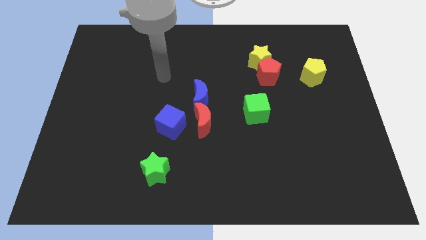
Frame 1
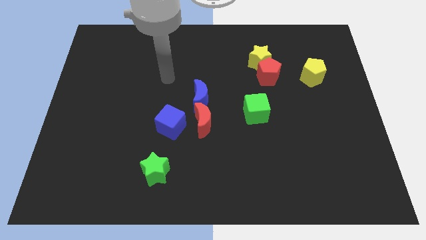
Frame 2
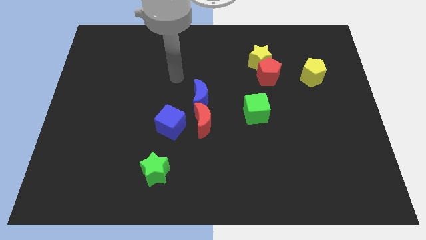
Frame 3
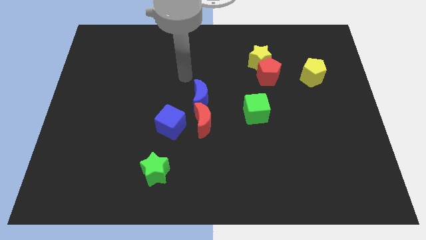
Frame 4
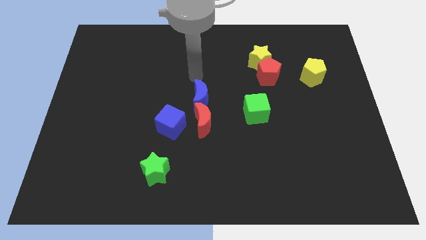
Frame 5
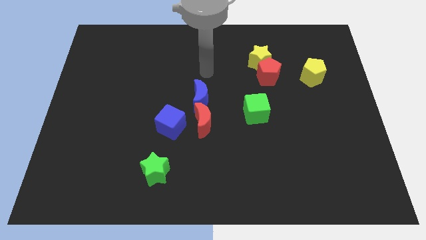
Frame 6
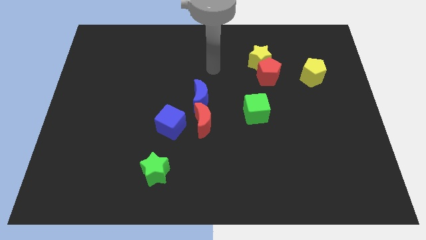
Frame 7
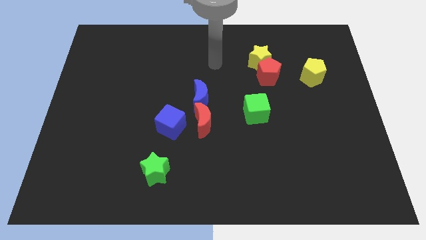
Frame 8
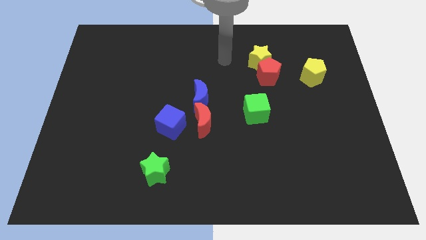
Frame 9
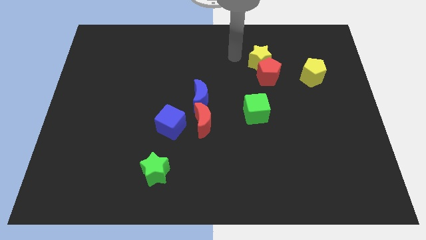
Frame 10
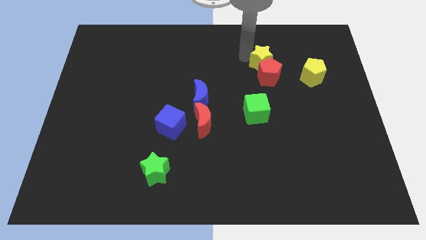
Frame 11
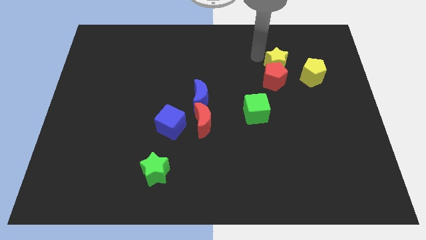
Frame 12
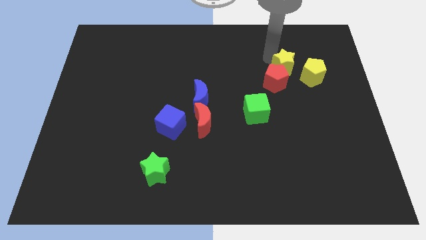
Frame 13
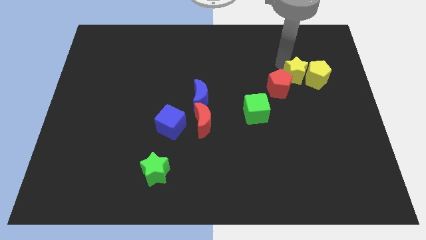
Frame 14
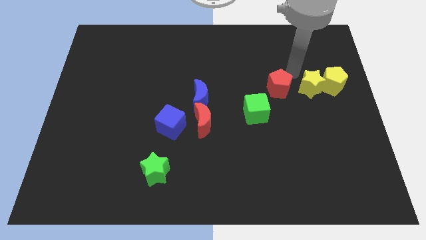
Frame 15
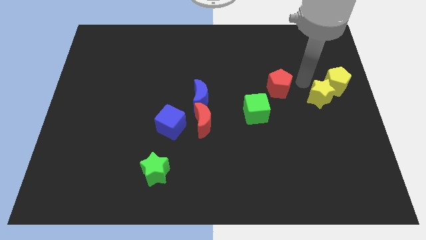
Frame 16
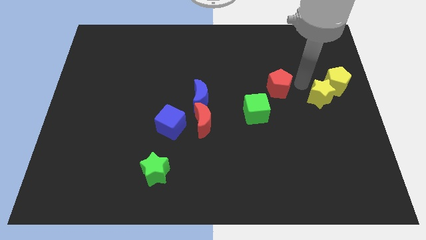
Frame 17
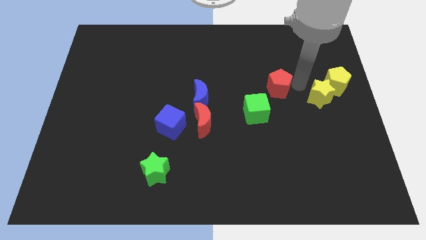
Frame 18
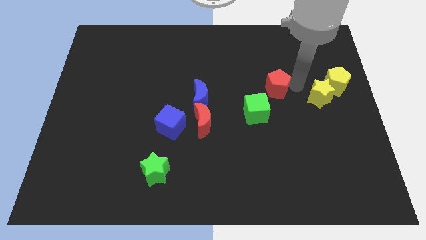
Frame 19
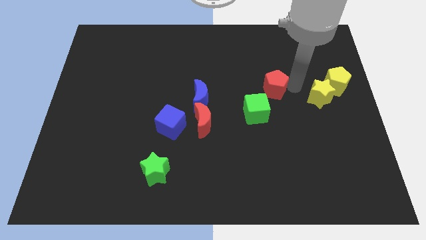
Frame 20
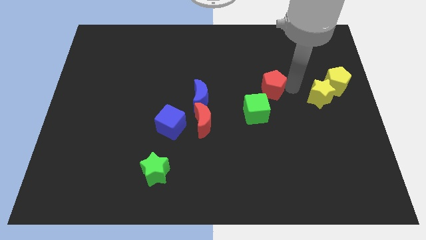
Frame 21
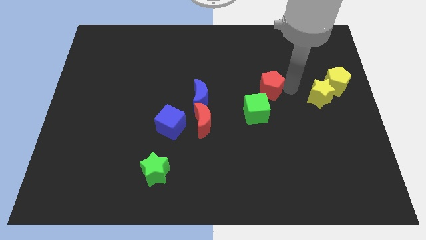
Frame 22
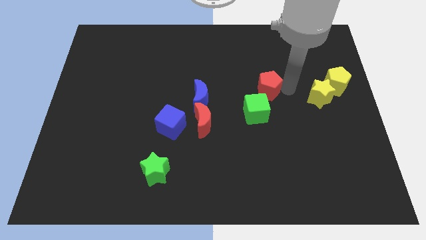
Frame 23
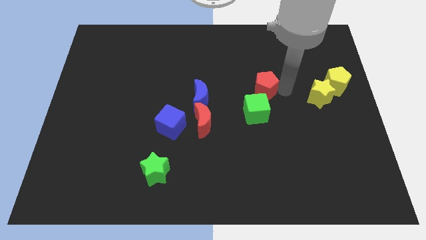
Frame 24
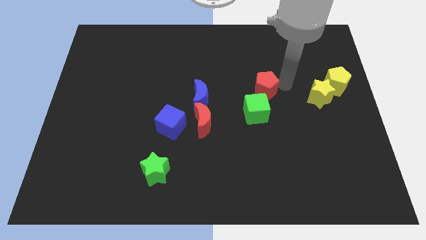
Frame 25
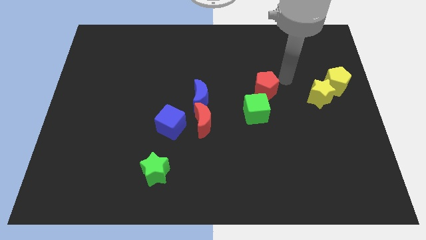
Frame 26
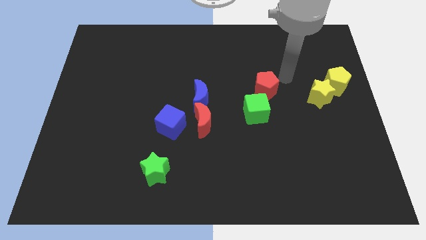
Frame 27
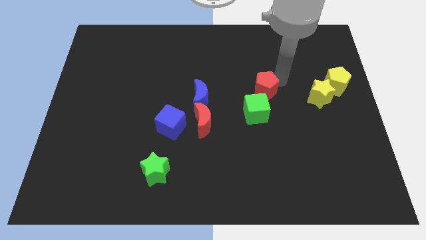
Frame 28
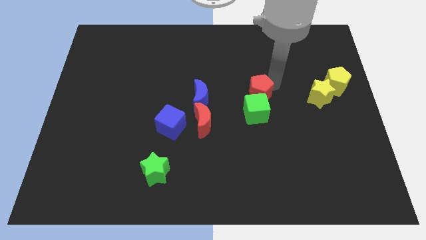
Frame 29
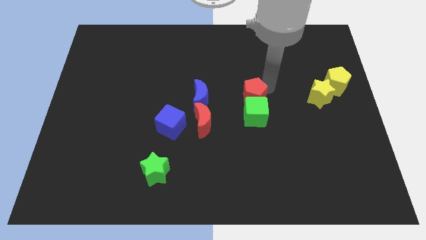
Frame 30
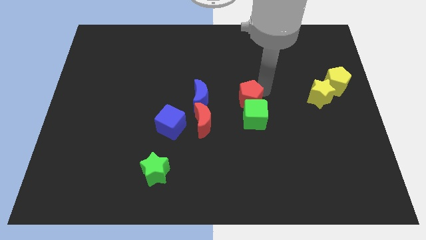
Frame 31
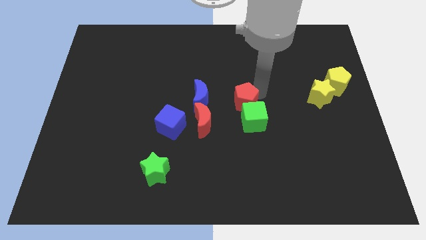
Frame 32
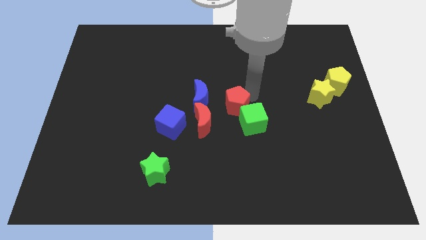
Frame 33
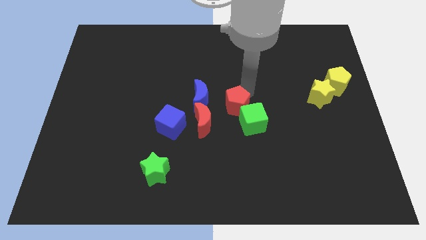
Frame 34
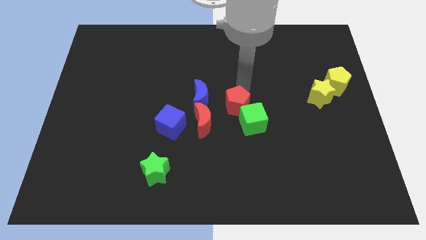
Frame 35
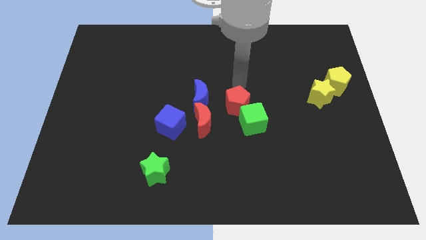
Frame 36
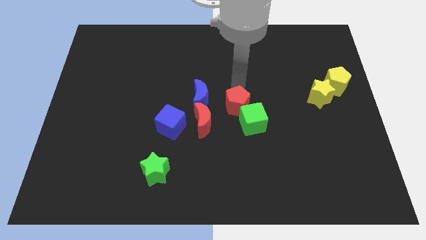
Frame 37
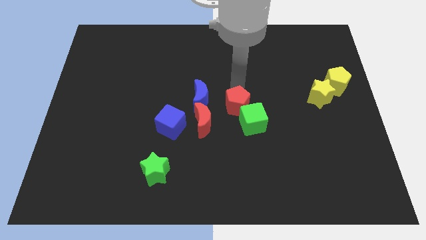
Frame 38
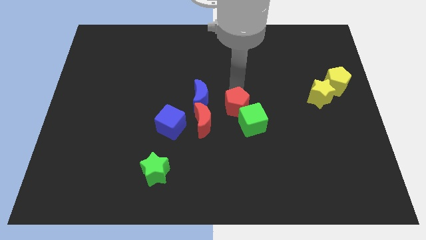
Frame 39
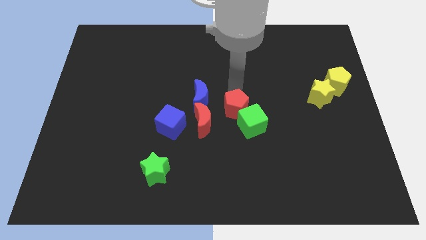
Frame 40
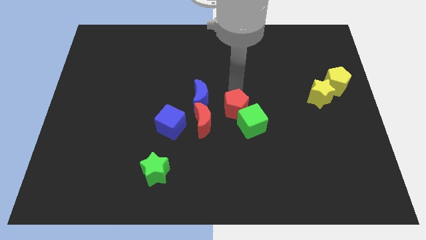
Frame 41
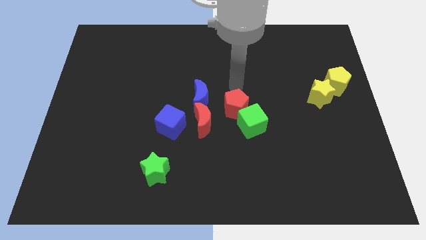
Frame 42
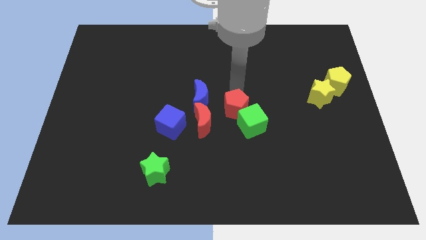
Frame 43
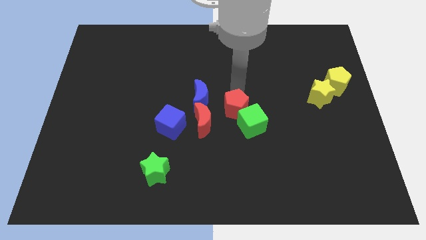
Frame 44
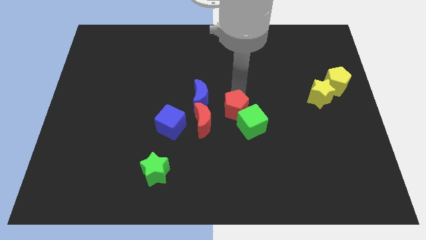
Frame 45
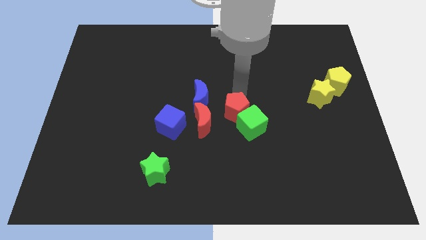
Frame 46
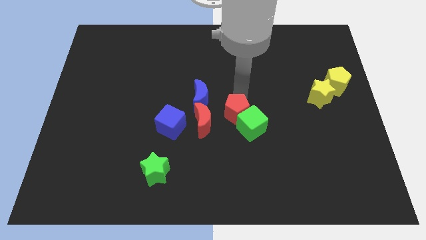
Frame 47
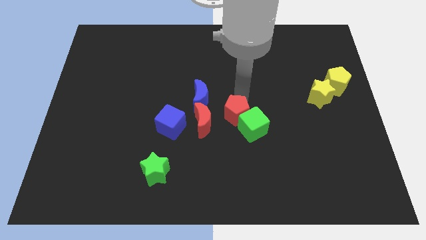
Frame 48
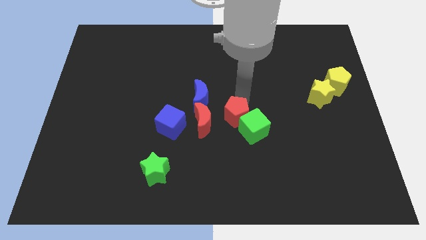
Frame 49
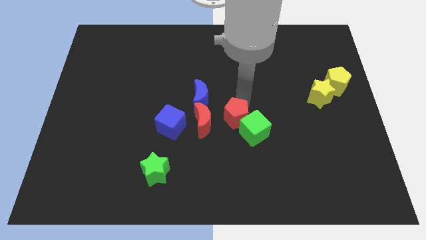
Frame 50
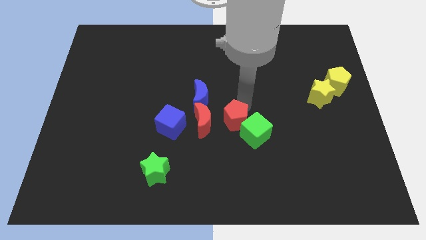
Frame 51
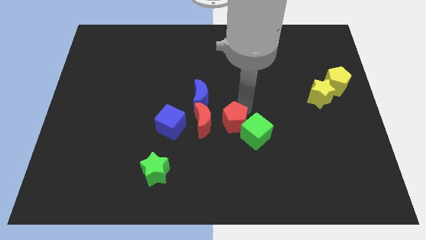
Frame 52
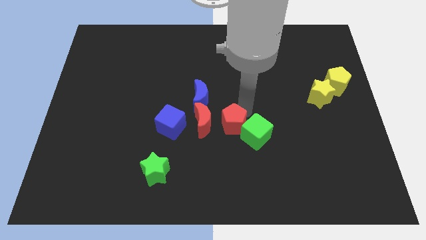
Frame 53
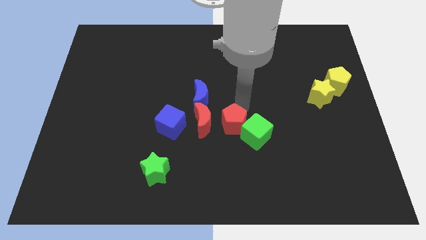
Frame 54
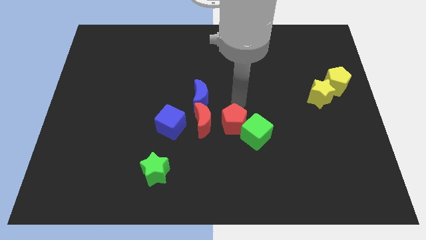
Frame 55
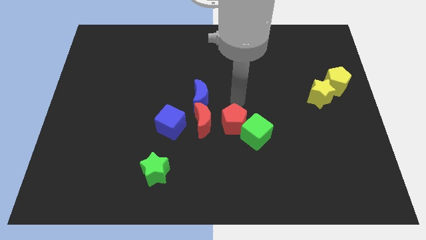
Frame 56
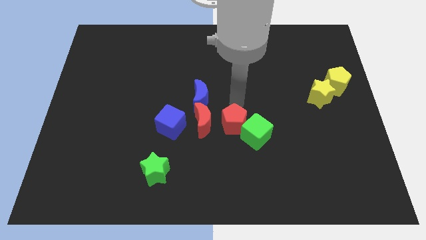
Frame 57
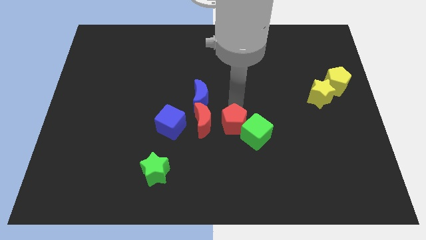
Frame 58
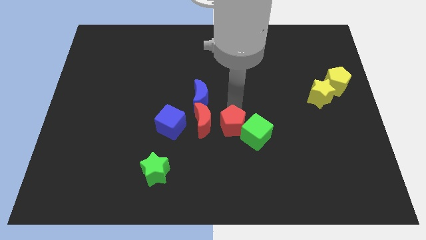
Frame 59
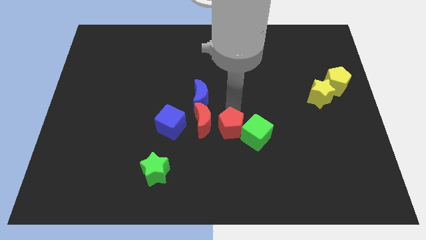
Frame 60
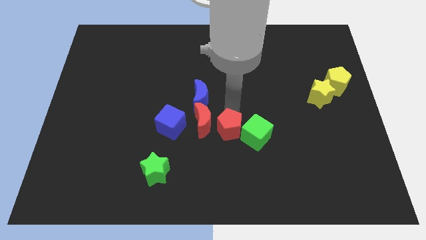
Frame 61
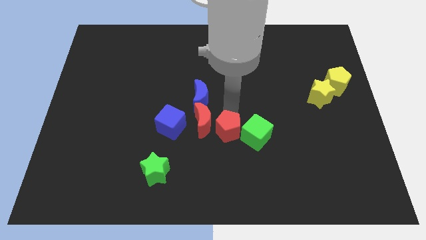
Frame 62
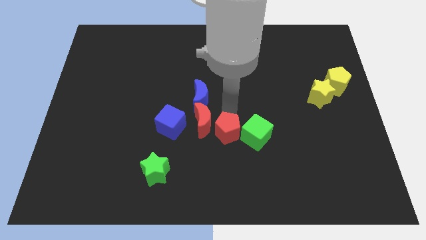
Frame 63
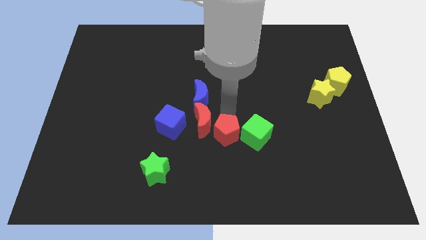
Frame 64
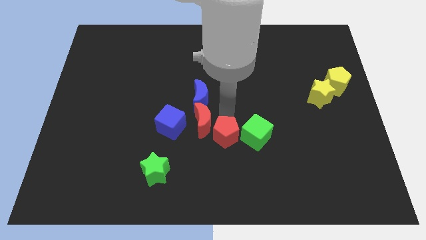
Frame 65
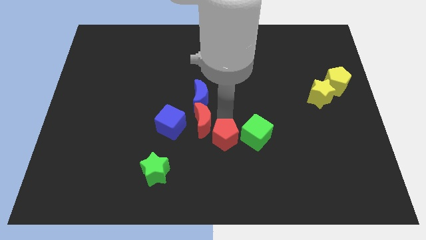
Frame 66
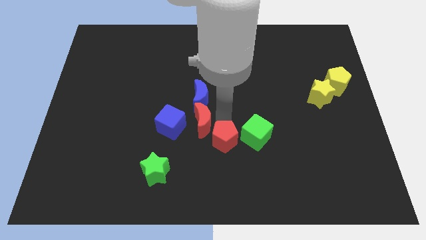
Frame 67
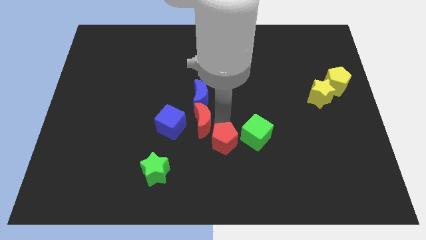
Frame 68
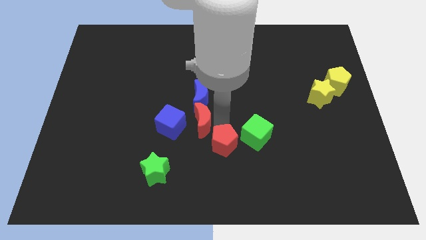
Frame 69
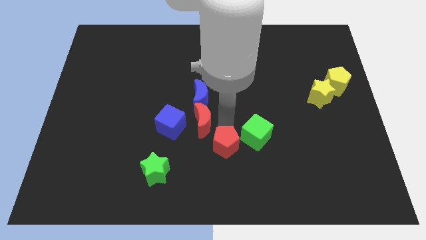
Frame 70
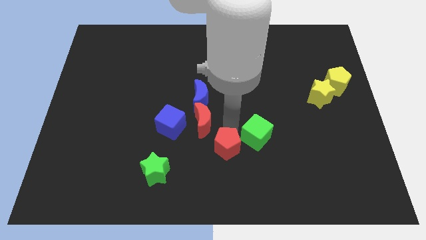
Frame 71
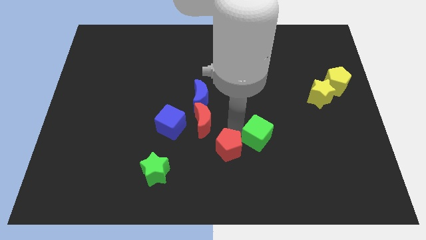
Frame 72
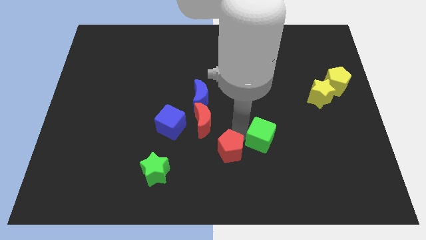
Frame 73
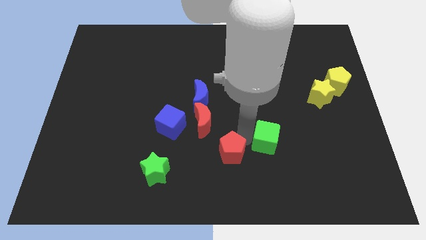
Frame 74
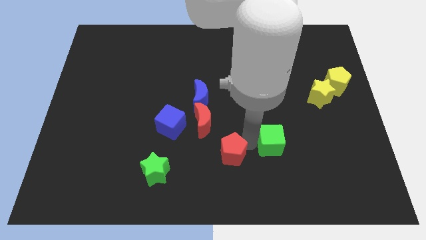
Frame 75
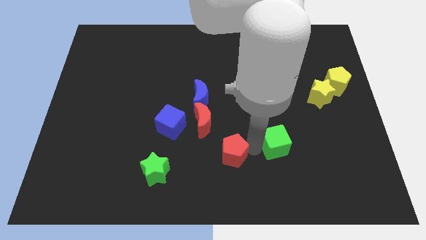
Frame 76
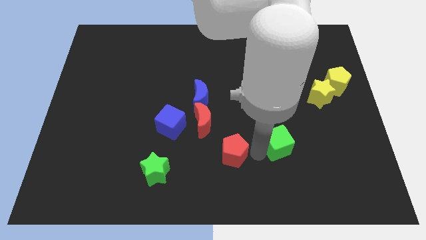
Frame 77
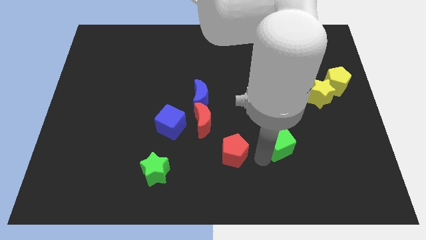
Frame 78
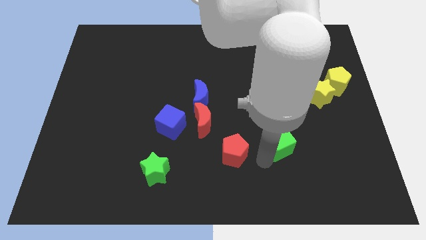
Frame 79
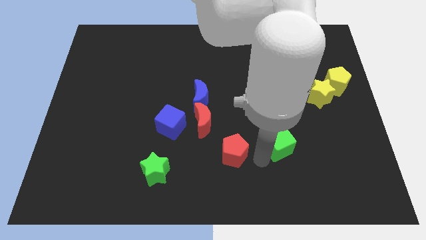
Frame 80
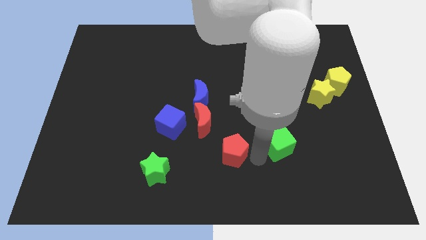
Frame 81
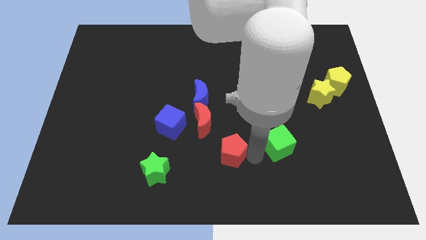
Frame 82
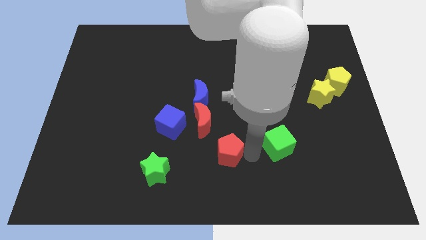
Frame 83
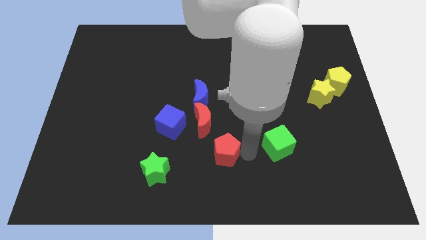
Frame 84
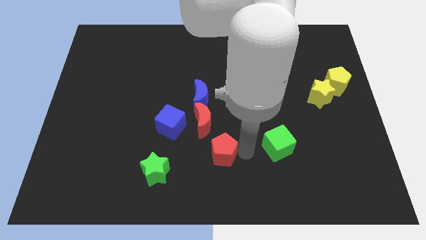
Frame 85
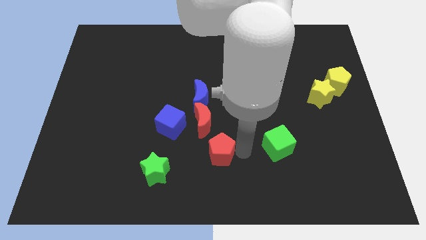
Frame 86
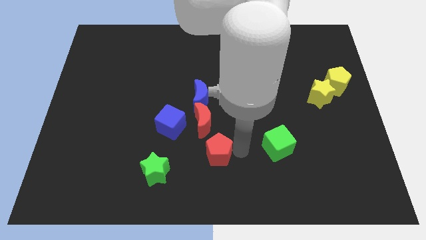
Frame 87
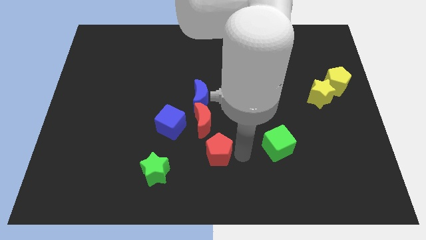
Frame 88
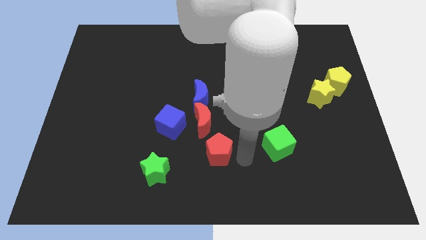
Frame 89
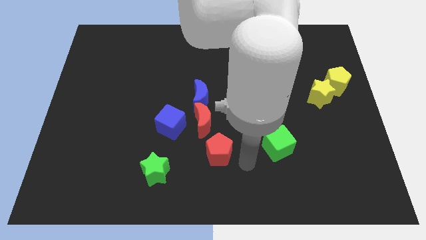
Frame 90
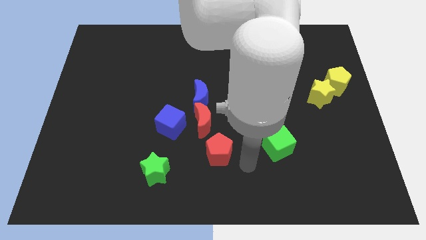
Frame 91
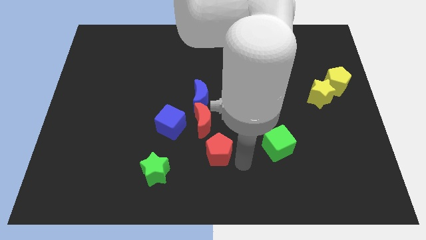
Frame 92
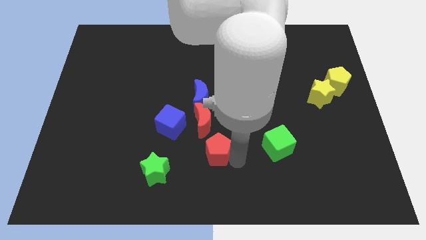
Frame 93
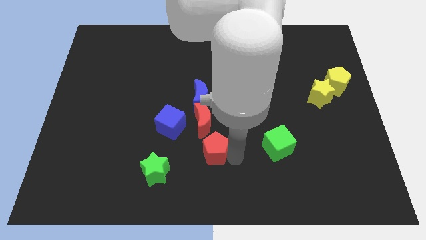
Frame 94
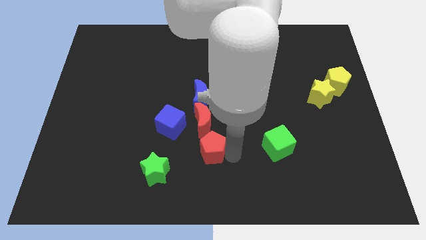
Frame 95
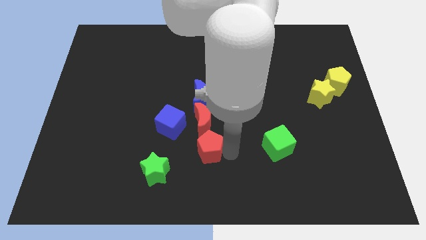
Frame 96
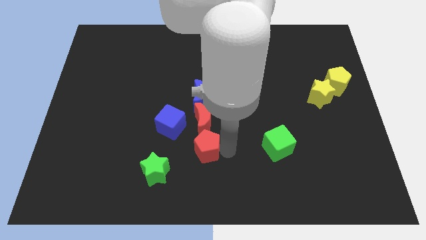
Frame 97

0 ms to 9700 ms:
put the red pentagon diagonally up and to the right of the green star
